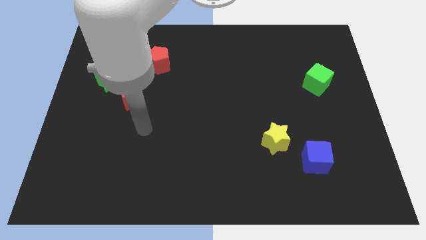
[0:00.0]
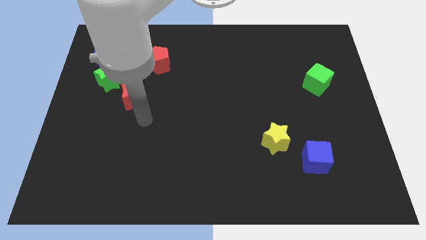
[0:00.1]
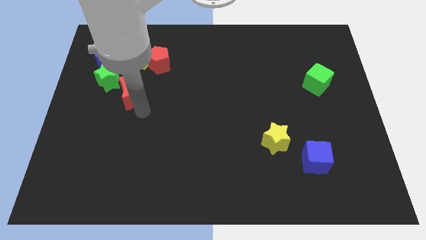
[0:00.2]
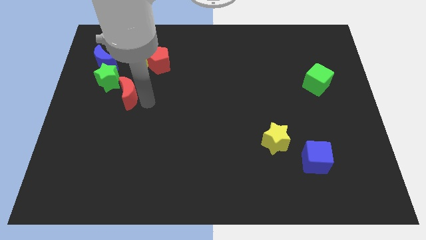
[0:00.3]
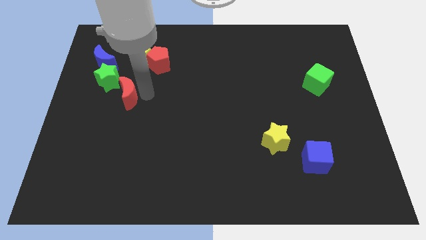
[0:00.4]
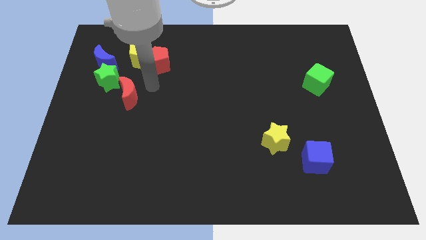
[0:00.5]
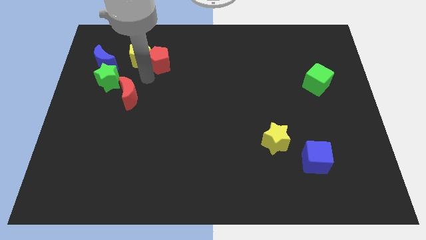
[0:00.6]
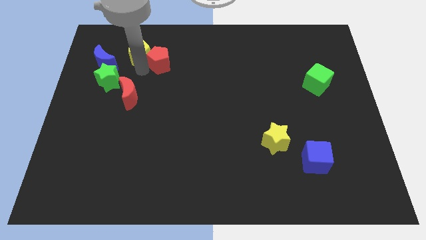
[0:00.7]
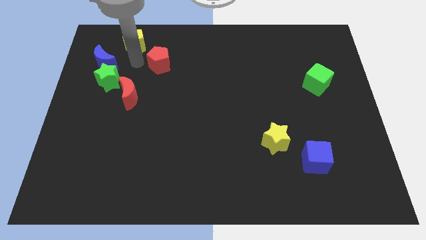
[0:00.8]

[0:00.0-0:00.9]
separate the red pentagon from the yellow pentagon

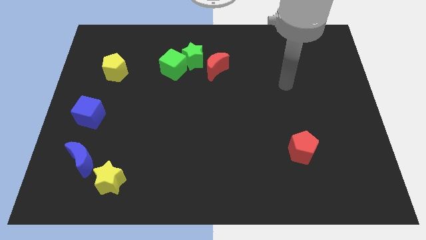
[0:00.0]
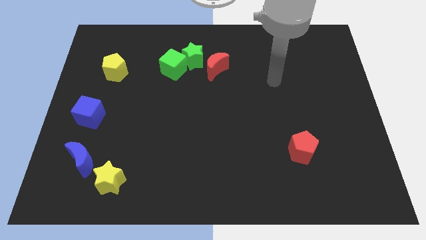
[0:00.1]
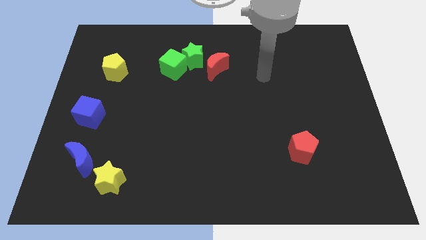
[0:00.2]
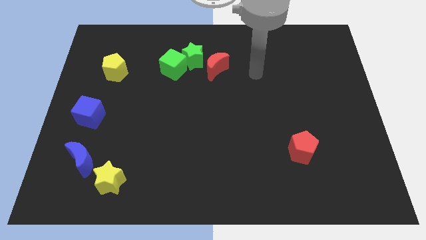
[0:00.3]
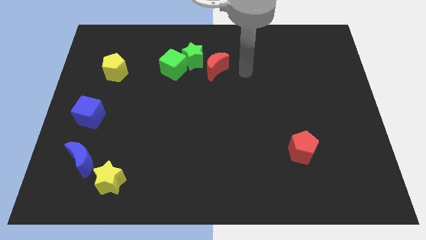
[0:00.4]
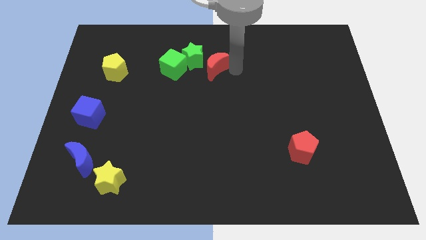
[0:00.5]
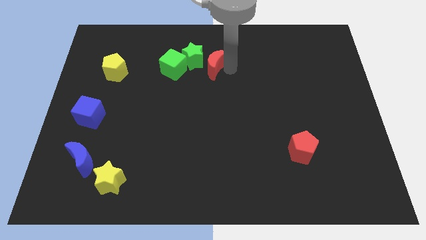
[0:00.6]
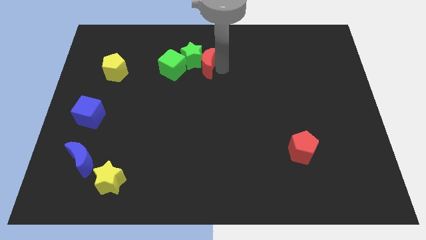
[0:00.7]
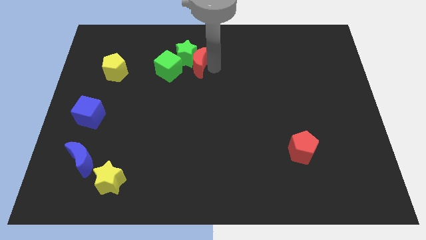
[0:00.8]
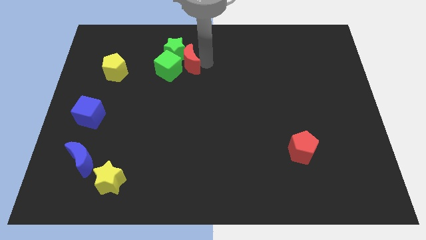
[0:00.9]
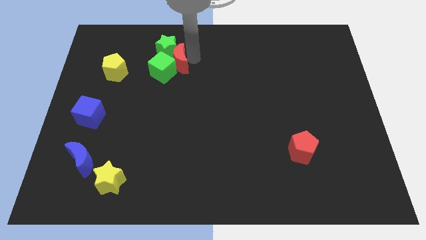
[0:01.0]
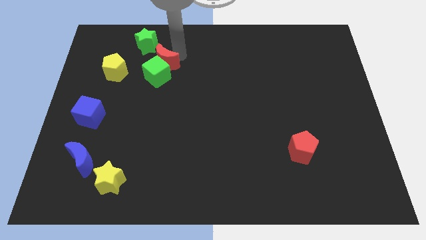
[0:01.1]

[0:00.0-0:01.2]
separate the green cube from the green star

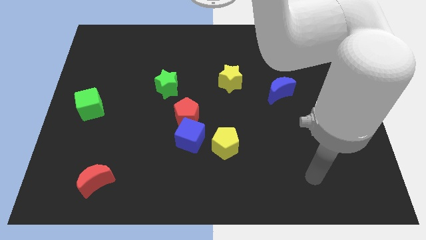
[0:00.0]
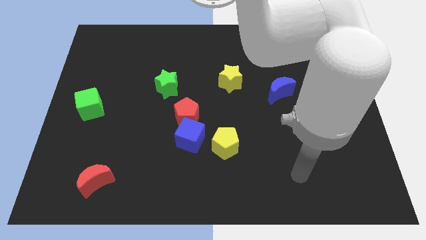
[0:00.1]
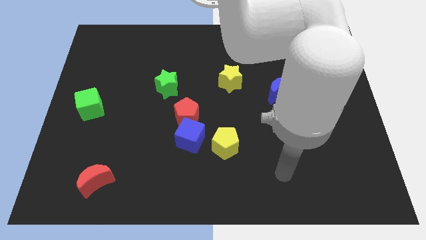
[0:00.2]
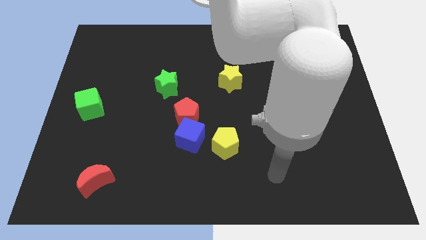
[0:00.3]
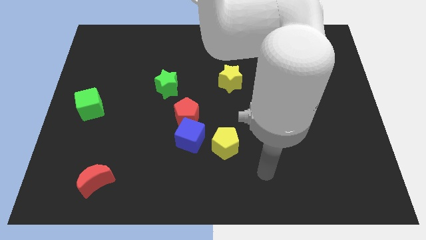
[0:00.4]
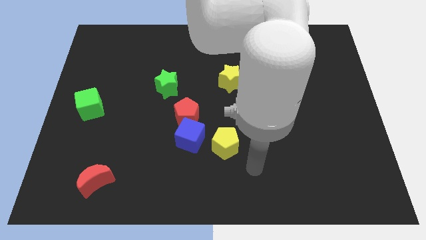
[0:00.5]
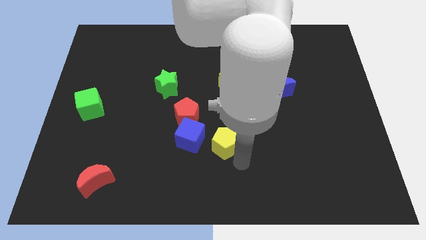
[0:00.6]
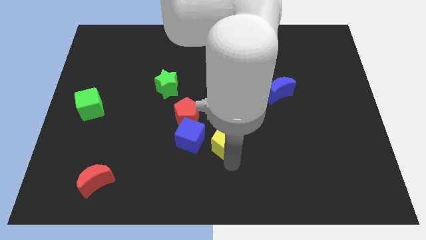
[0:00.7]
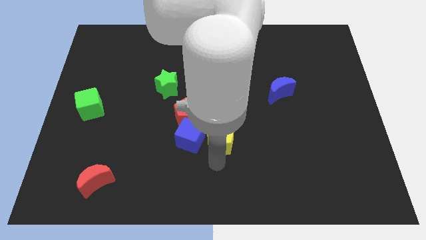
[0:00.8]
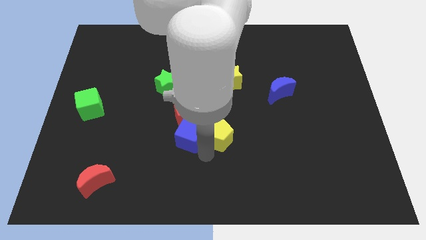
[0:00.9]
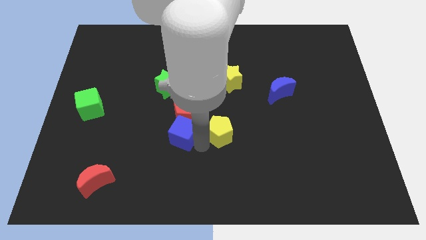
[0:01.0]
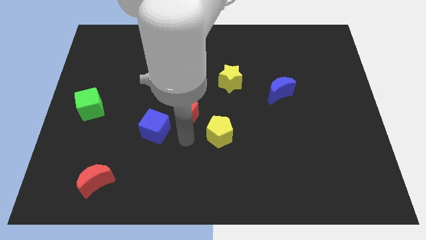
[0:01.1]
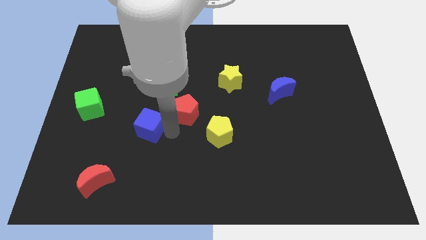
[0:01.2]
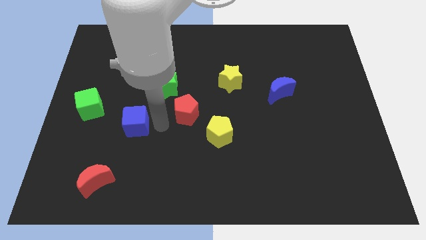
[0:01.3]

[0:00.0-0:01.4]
move the red pentagon away from the blue cube

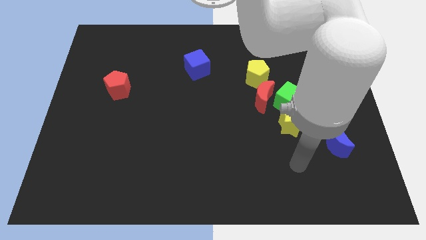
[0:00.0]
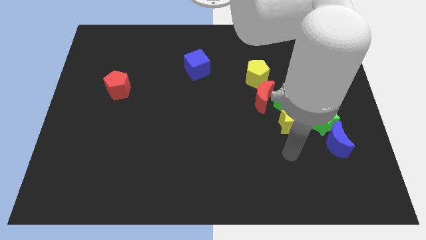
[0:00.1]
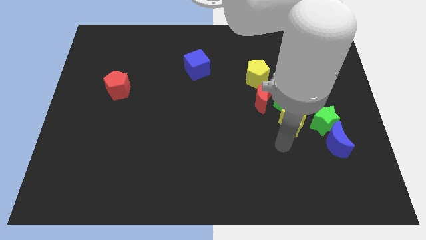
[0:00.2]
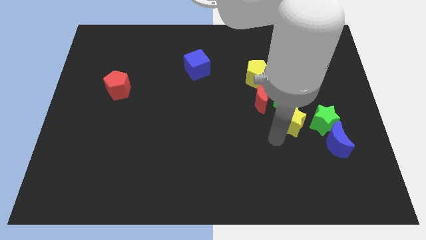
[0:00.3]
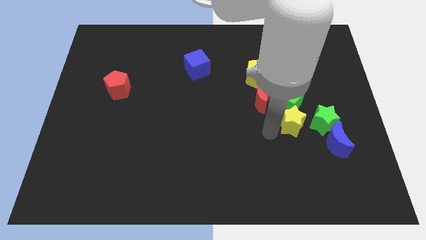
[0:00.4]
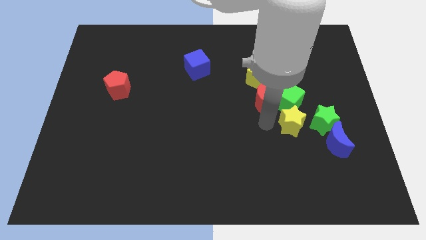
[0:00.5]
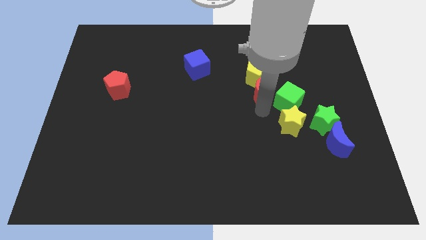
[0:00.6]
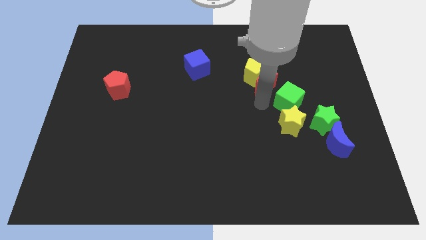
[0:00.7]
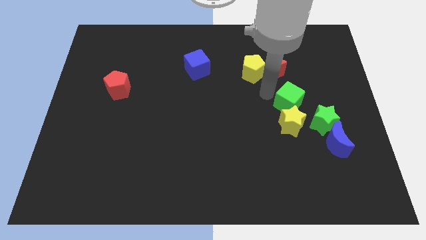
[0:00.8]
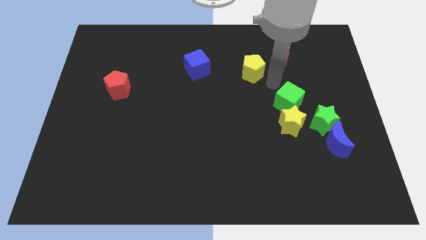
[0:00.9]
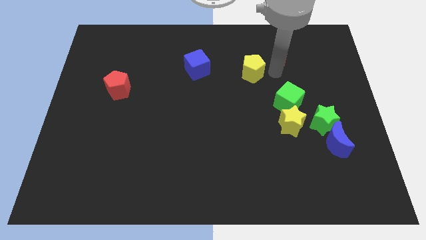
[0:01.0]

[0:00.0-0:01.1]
move the yellow pentagon away from the red moon

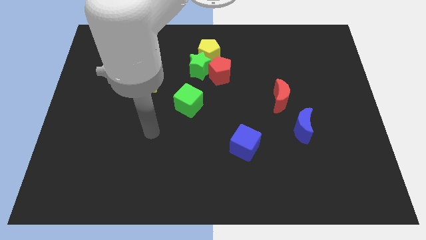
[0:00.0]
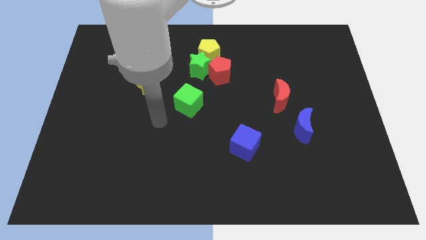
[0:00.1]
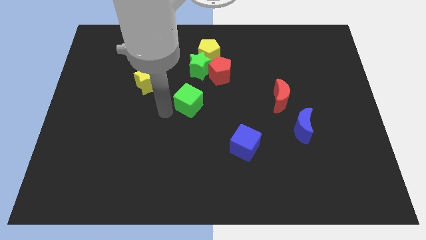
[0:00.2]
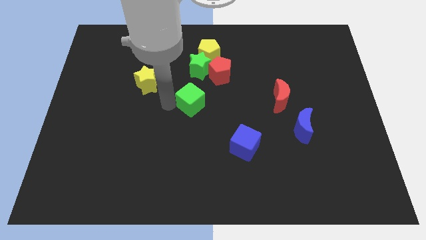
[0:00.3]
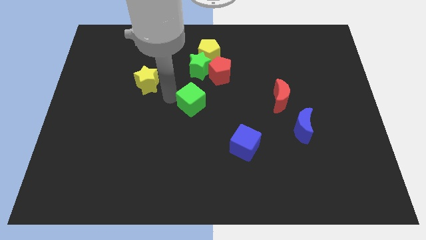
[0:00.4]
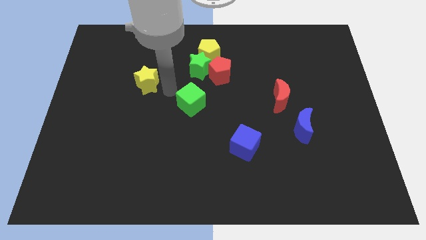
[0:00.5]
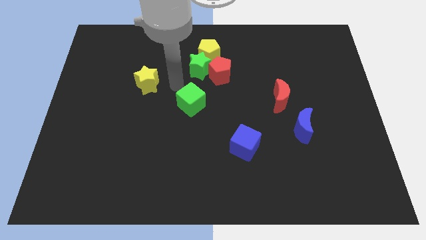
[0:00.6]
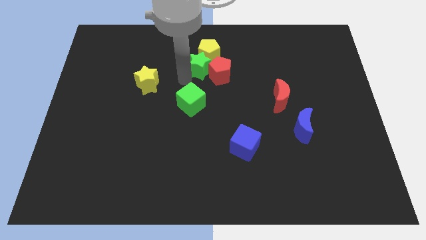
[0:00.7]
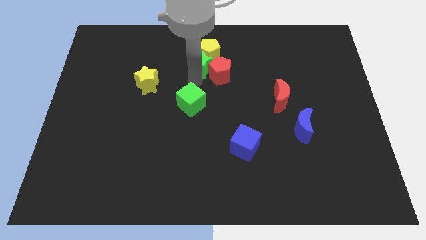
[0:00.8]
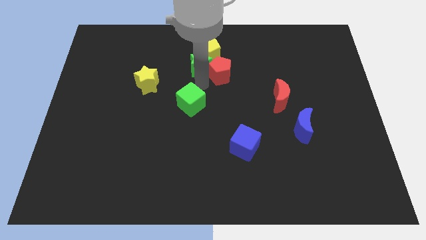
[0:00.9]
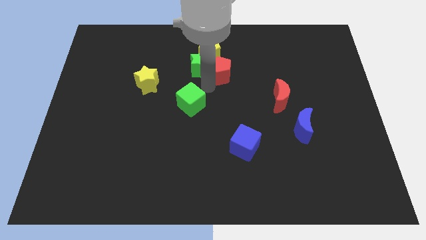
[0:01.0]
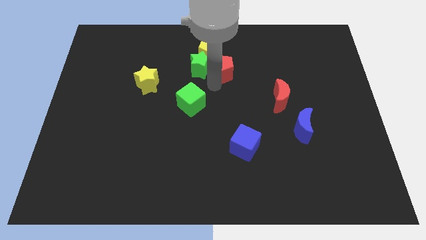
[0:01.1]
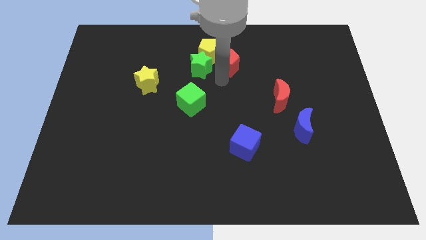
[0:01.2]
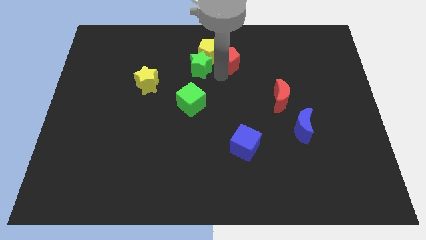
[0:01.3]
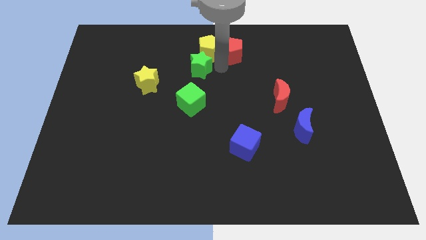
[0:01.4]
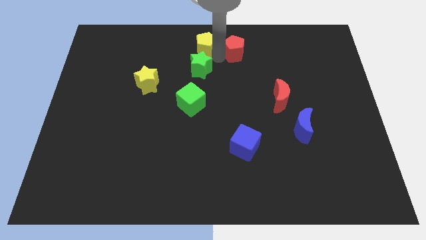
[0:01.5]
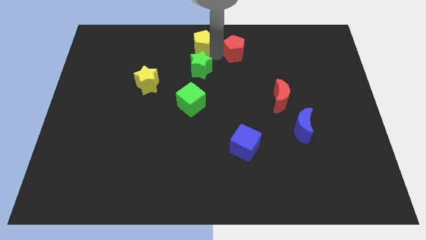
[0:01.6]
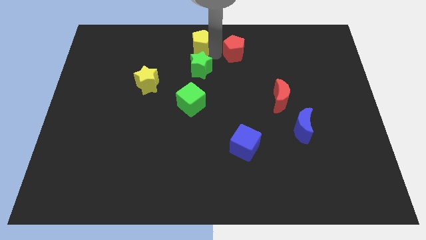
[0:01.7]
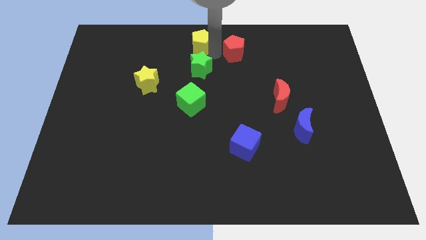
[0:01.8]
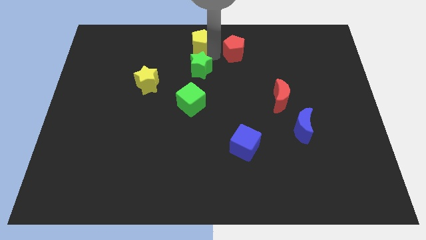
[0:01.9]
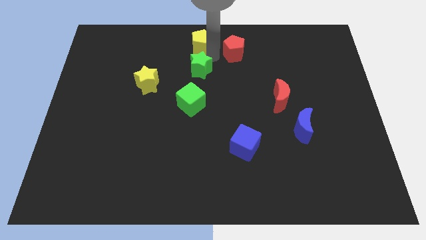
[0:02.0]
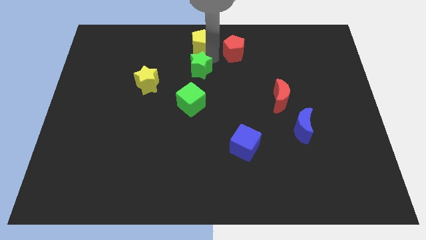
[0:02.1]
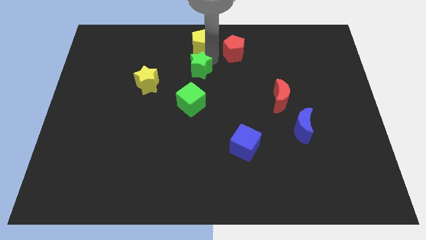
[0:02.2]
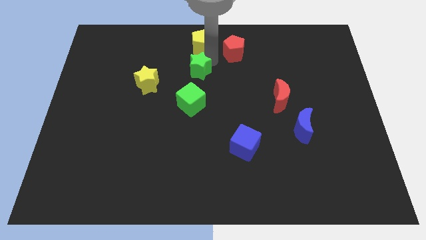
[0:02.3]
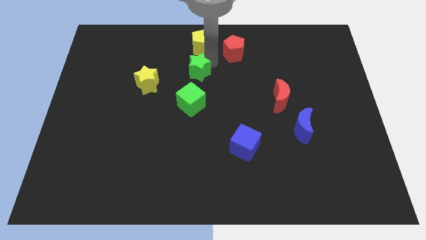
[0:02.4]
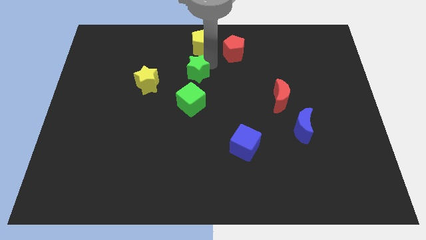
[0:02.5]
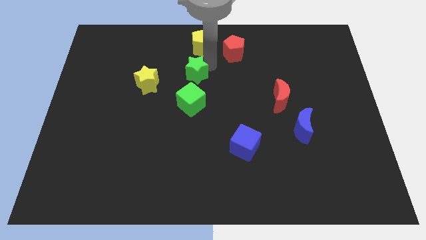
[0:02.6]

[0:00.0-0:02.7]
pull the green star apart from the yellow pentagon and red pentagon

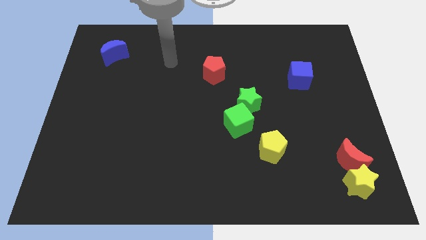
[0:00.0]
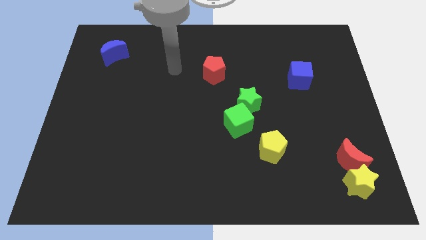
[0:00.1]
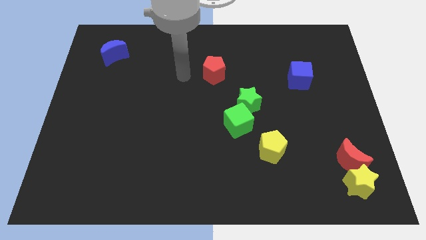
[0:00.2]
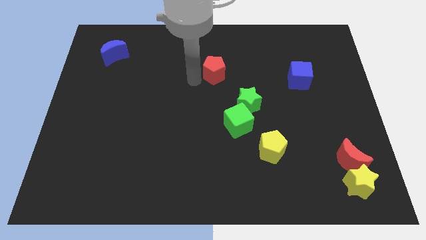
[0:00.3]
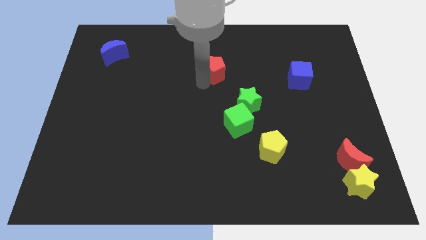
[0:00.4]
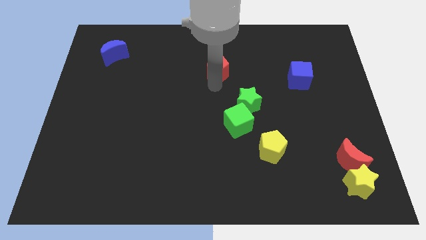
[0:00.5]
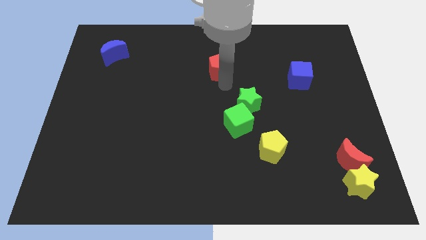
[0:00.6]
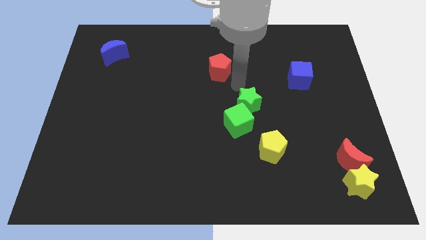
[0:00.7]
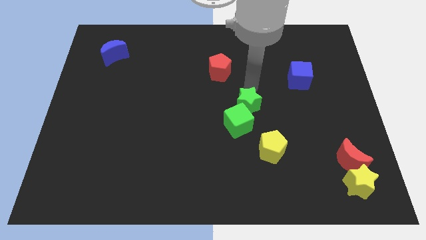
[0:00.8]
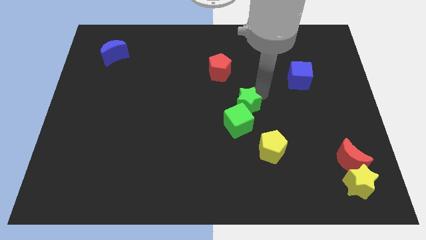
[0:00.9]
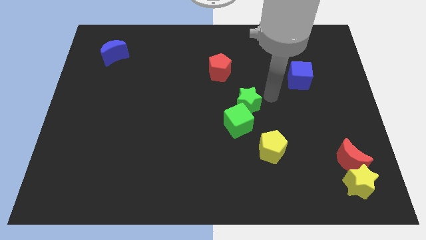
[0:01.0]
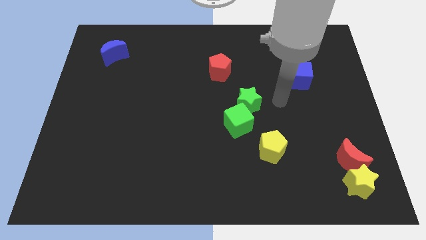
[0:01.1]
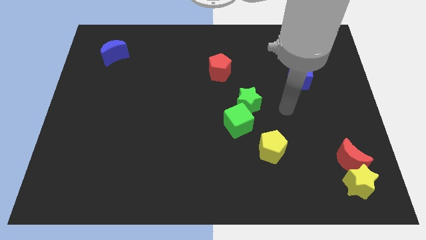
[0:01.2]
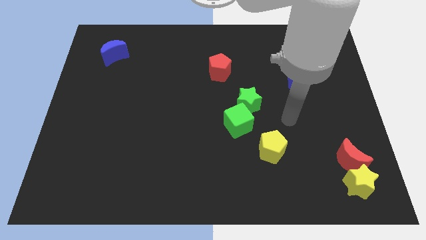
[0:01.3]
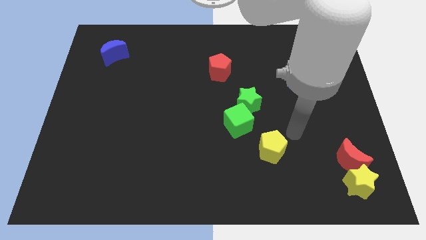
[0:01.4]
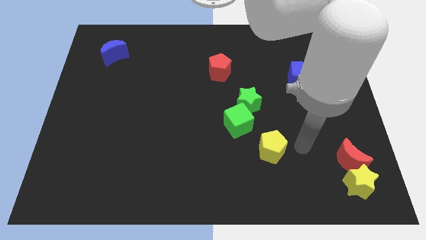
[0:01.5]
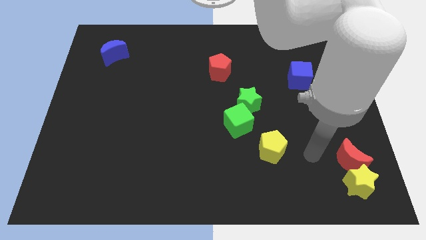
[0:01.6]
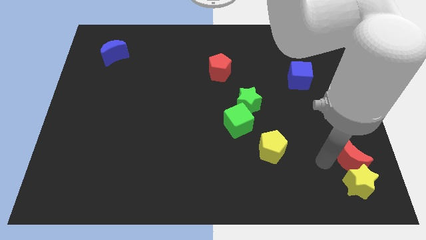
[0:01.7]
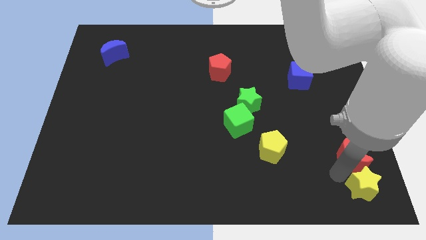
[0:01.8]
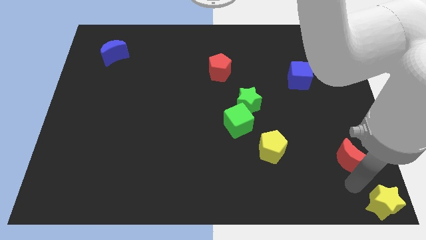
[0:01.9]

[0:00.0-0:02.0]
pull the red moon apart from the yellow star
